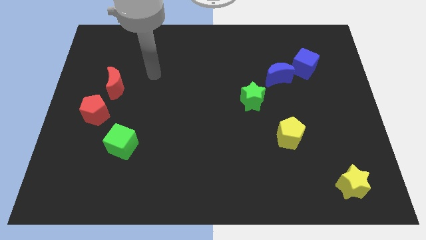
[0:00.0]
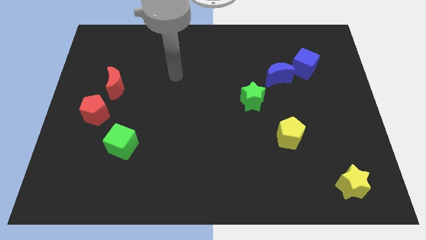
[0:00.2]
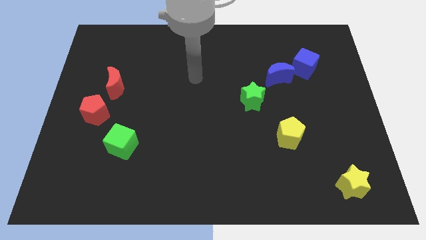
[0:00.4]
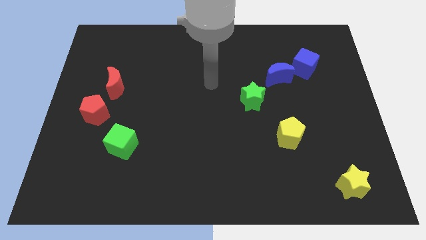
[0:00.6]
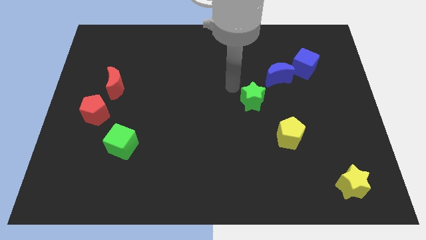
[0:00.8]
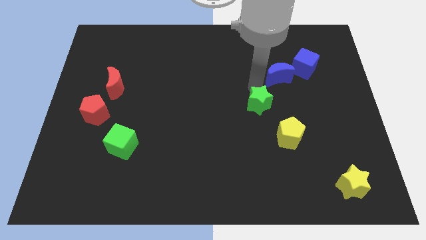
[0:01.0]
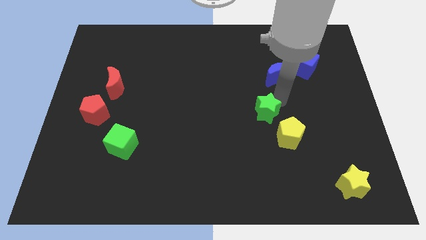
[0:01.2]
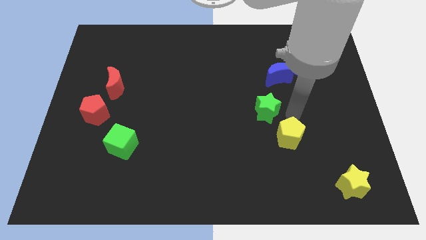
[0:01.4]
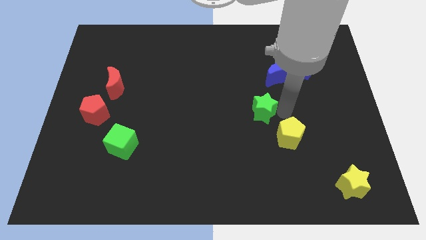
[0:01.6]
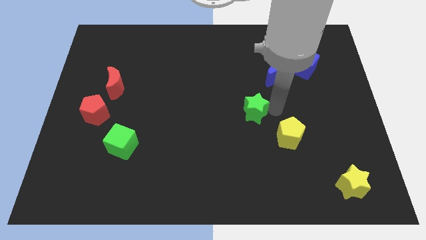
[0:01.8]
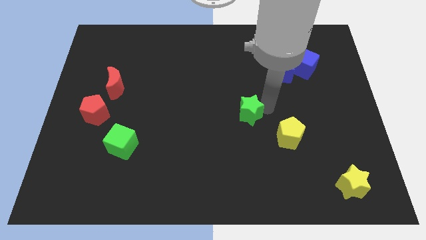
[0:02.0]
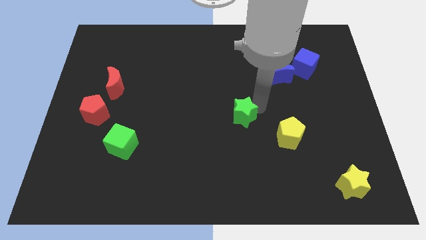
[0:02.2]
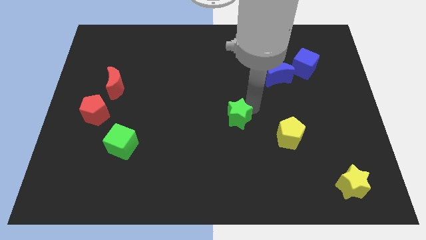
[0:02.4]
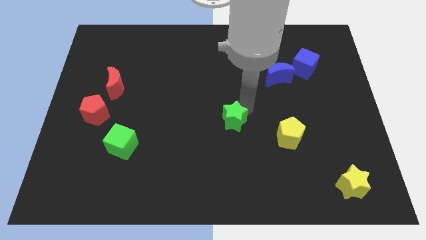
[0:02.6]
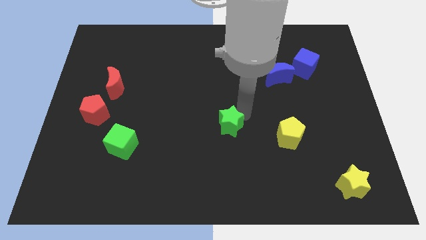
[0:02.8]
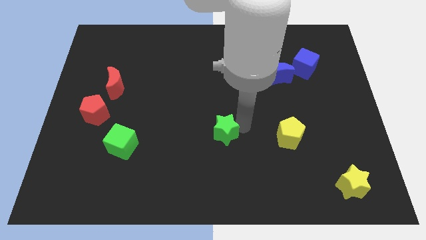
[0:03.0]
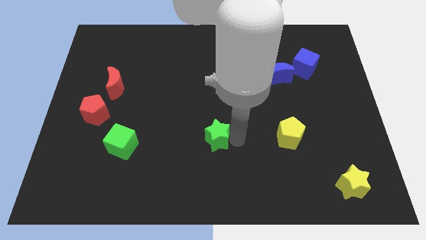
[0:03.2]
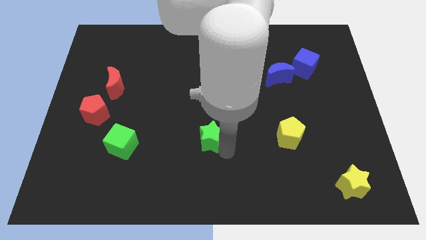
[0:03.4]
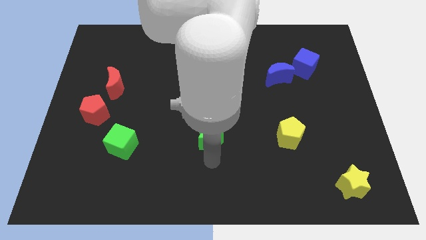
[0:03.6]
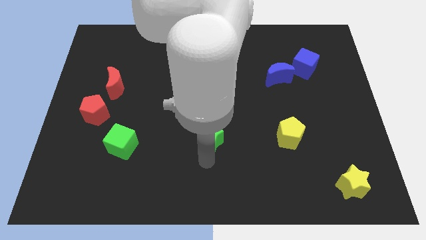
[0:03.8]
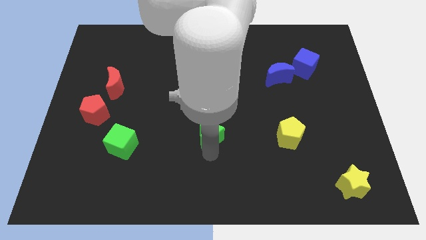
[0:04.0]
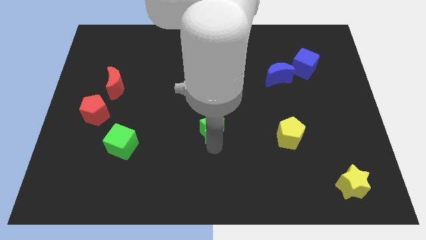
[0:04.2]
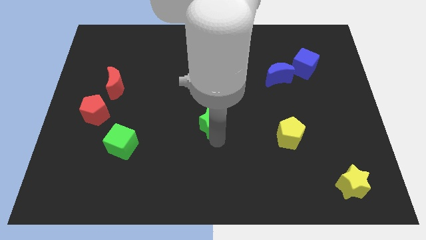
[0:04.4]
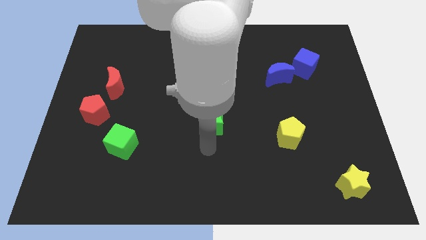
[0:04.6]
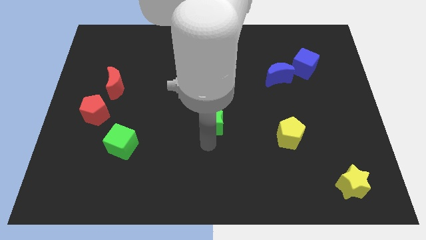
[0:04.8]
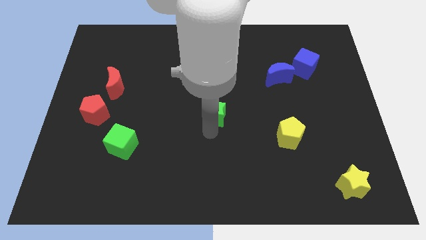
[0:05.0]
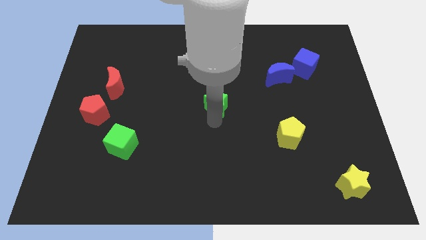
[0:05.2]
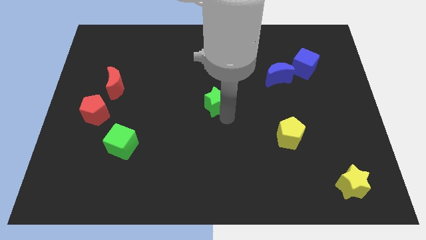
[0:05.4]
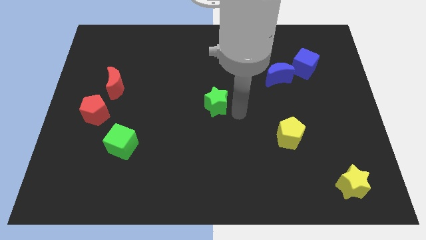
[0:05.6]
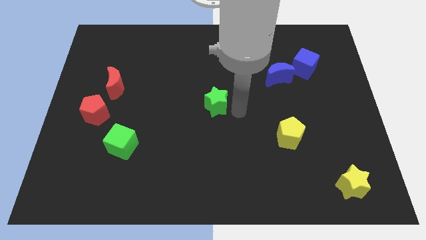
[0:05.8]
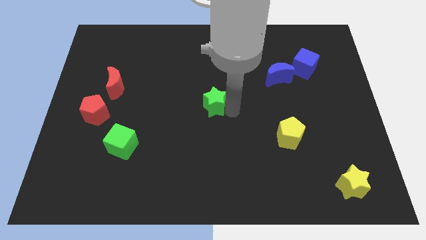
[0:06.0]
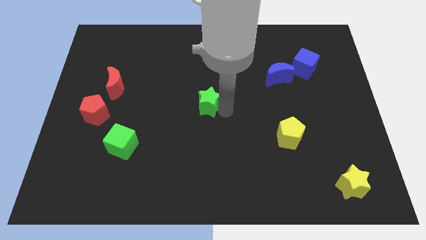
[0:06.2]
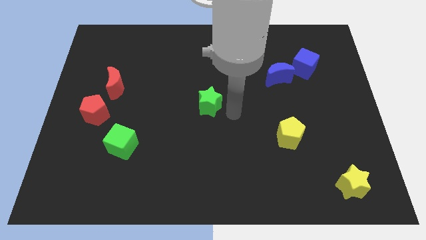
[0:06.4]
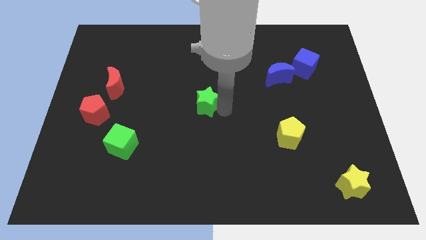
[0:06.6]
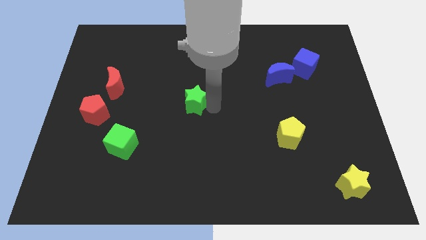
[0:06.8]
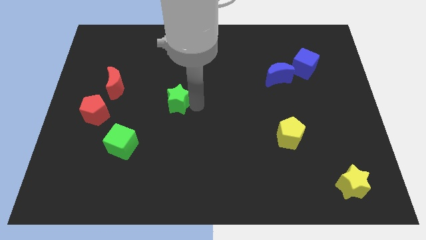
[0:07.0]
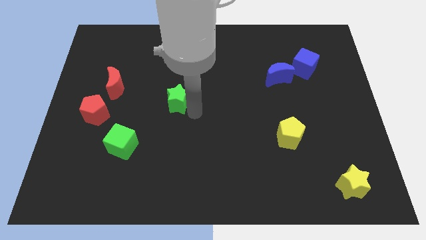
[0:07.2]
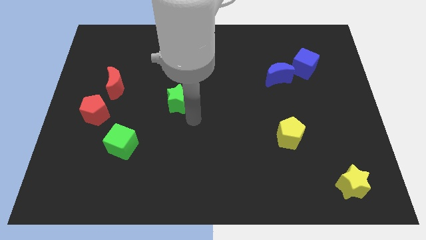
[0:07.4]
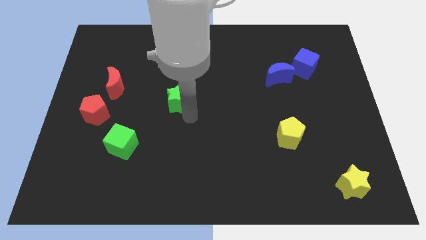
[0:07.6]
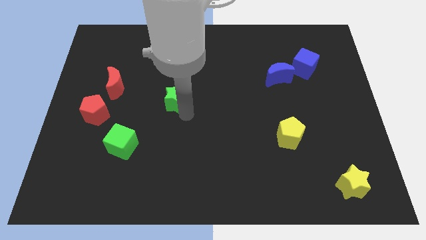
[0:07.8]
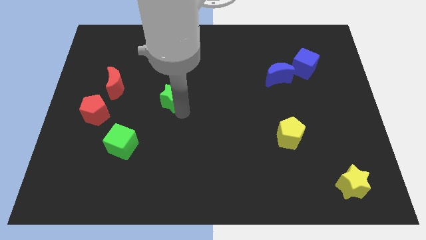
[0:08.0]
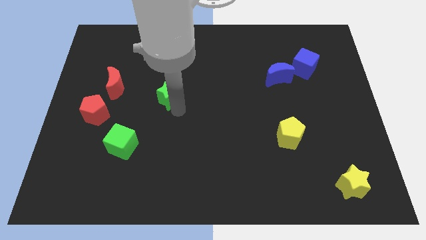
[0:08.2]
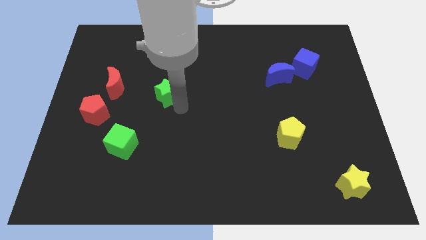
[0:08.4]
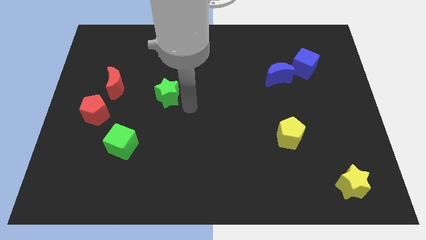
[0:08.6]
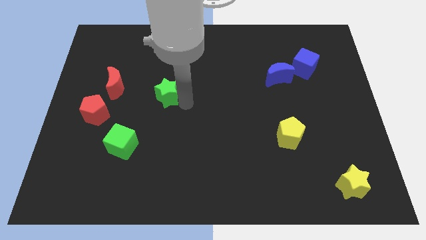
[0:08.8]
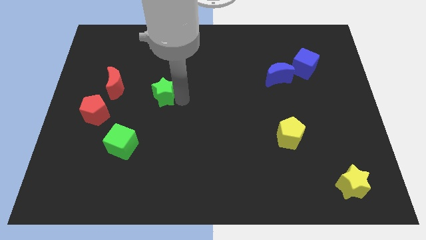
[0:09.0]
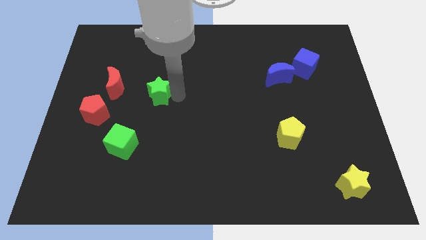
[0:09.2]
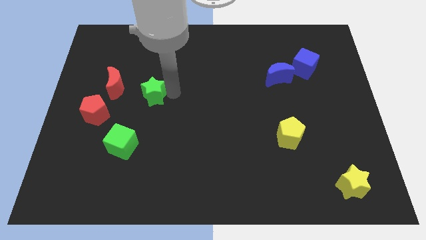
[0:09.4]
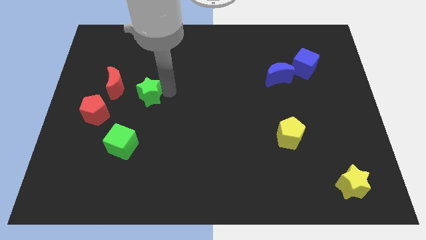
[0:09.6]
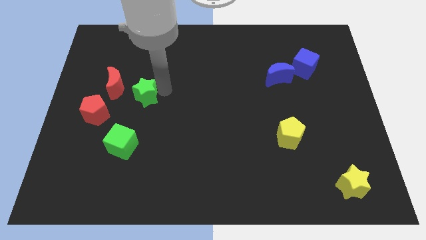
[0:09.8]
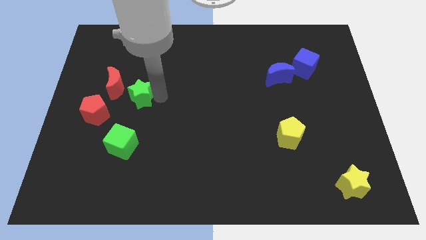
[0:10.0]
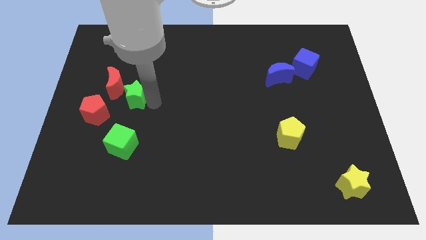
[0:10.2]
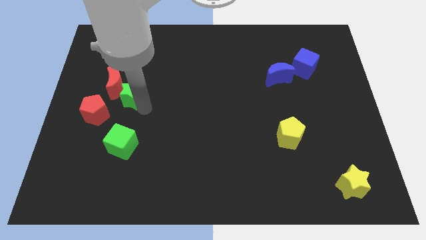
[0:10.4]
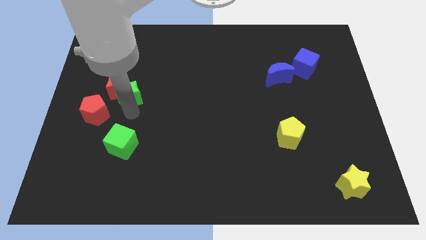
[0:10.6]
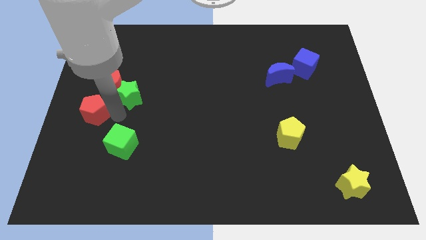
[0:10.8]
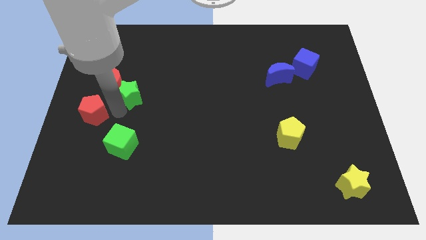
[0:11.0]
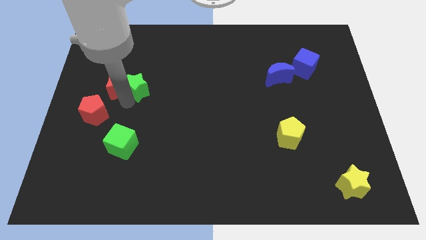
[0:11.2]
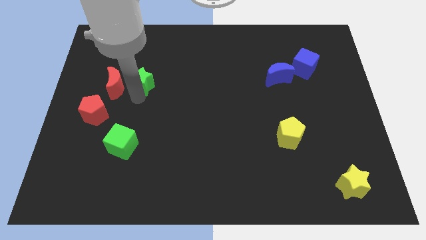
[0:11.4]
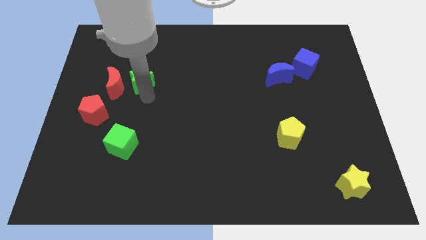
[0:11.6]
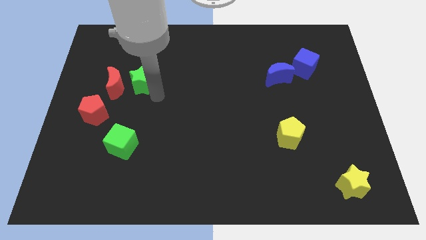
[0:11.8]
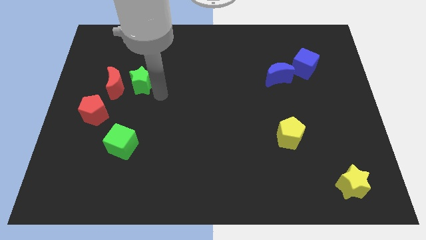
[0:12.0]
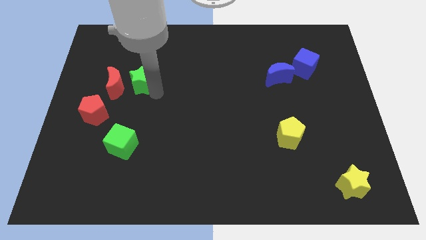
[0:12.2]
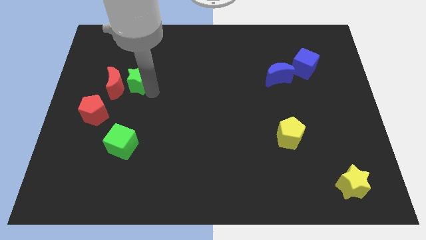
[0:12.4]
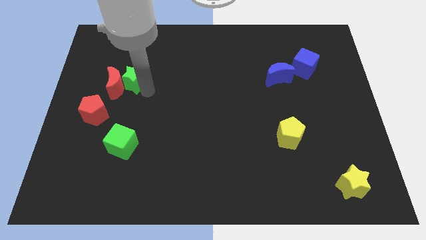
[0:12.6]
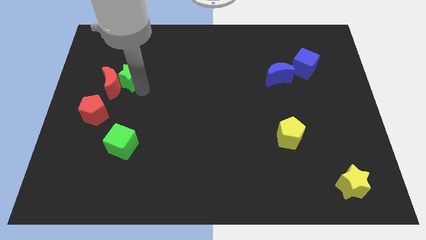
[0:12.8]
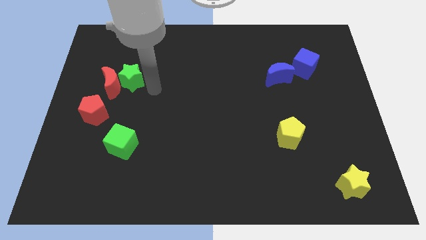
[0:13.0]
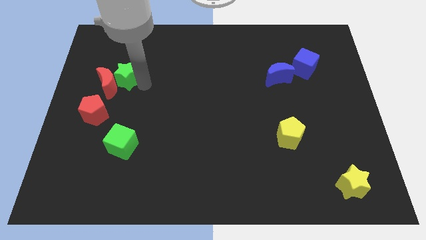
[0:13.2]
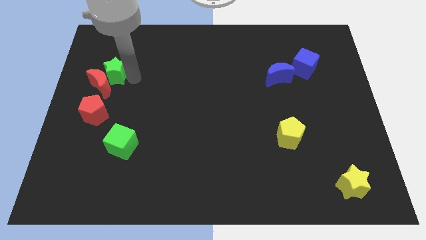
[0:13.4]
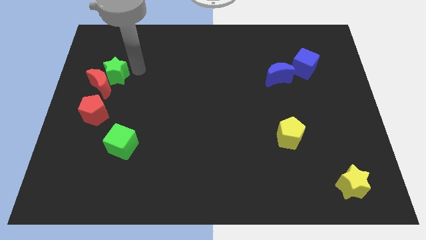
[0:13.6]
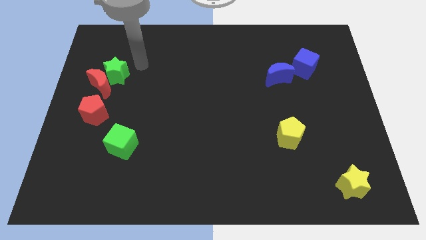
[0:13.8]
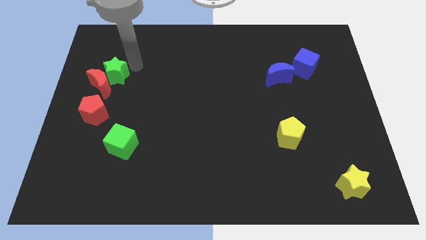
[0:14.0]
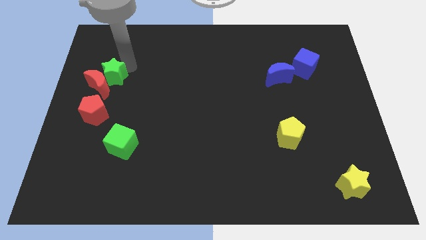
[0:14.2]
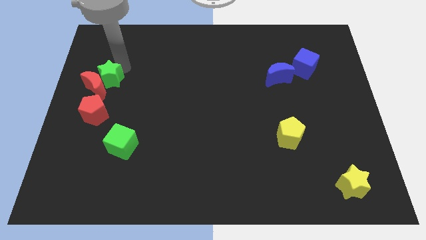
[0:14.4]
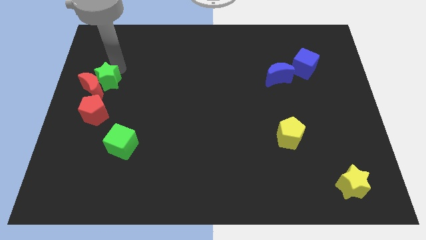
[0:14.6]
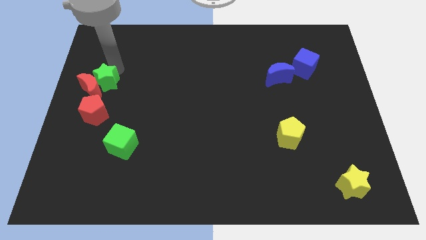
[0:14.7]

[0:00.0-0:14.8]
slide the green star to the left side

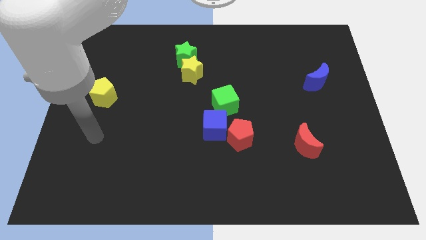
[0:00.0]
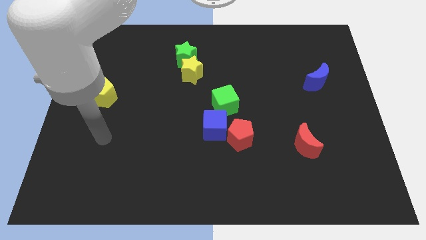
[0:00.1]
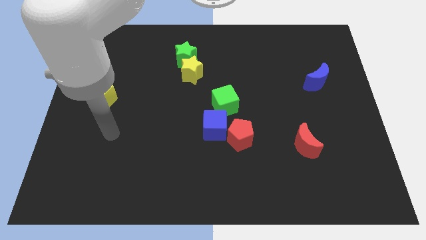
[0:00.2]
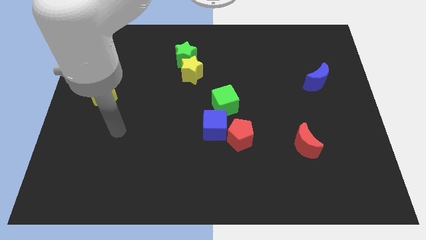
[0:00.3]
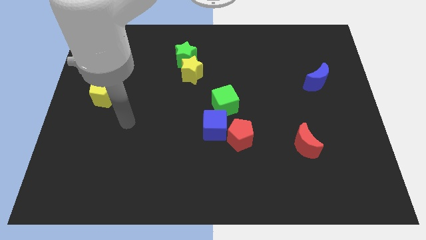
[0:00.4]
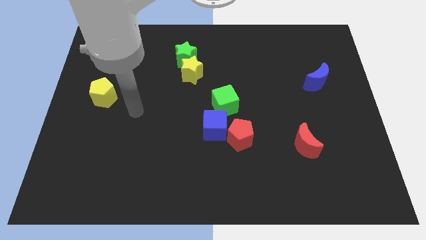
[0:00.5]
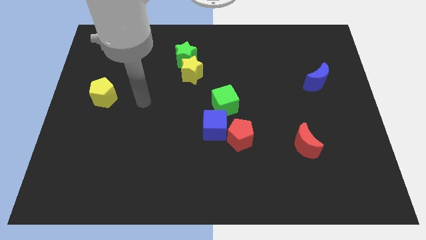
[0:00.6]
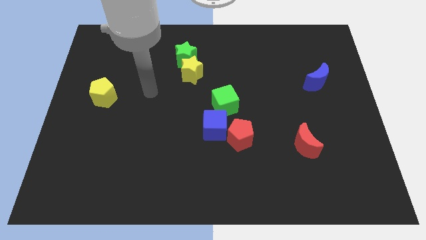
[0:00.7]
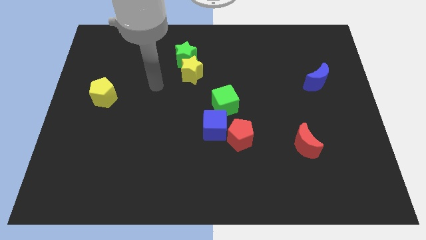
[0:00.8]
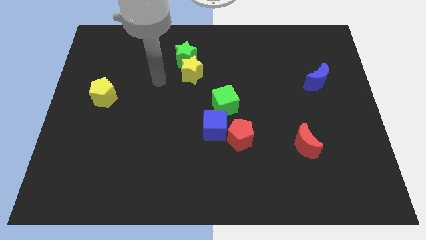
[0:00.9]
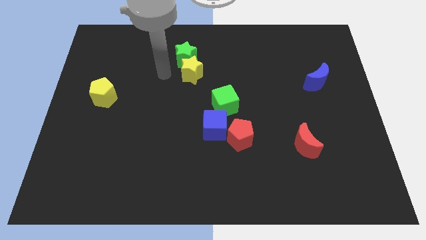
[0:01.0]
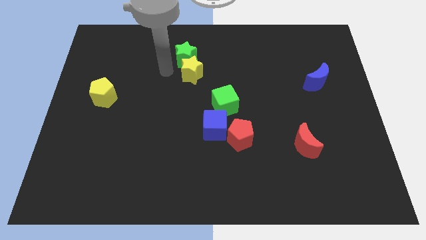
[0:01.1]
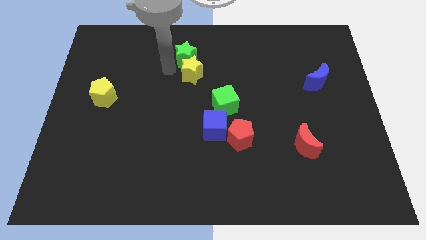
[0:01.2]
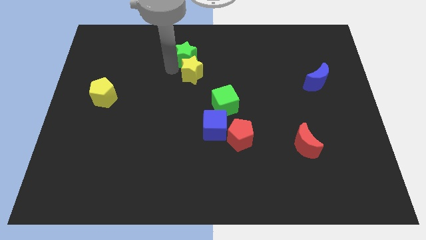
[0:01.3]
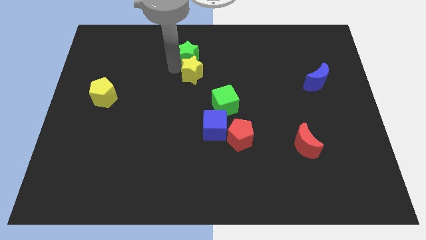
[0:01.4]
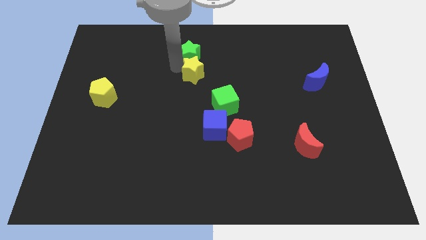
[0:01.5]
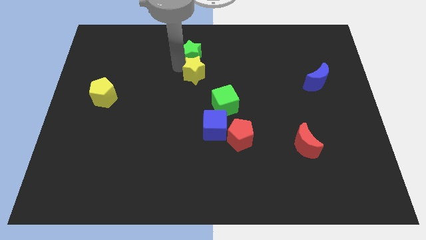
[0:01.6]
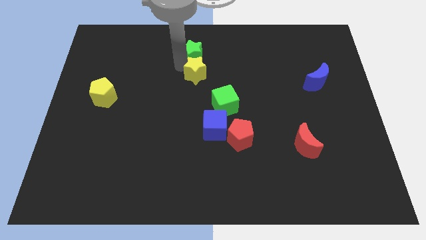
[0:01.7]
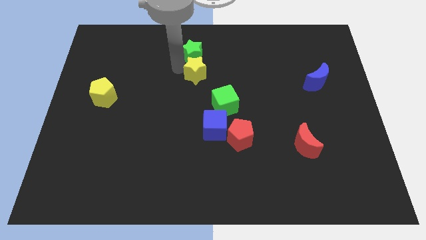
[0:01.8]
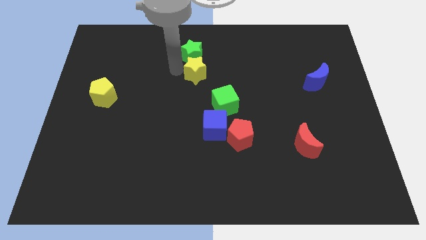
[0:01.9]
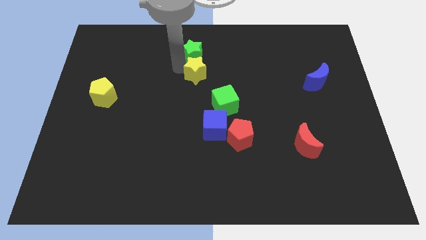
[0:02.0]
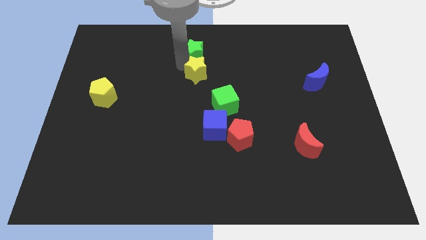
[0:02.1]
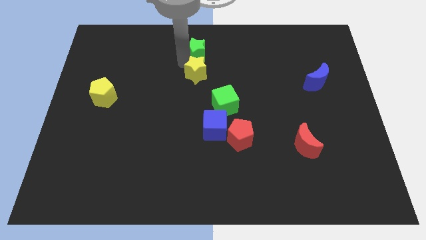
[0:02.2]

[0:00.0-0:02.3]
push the green star to the top side
